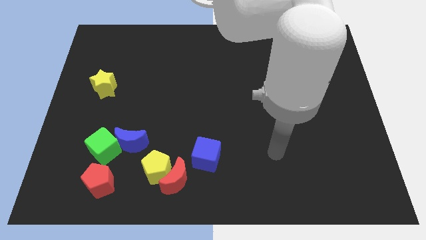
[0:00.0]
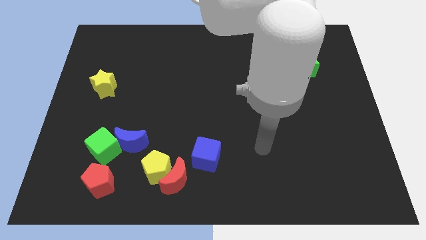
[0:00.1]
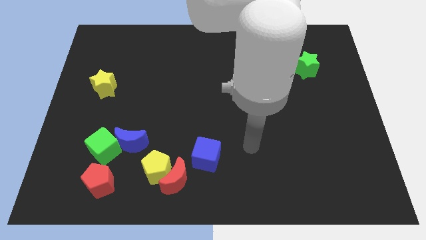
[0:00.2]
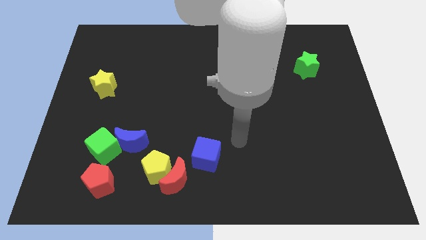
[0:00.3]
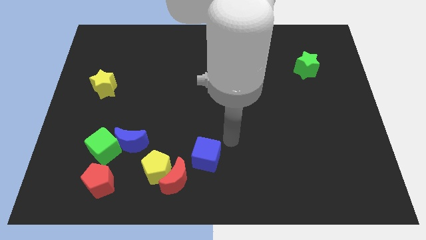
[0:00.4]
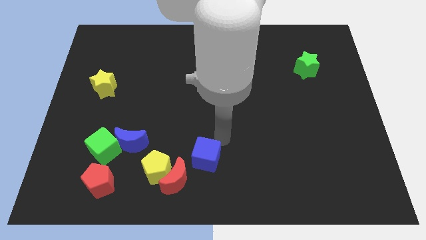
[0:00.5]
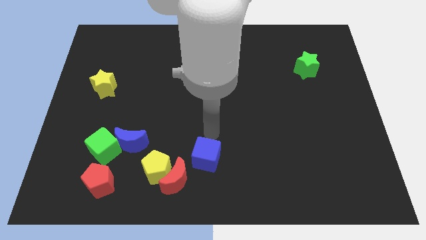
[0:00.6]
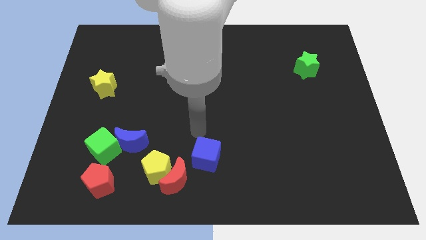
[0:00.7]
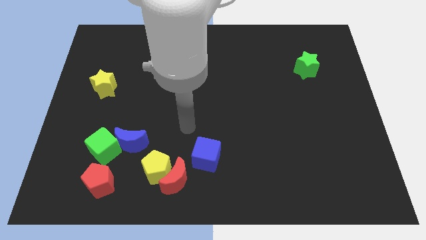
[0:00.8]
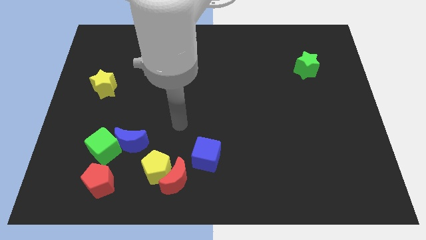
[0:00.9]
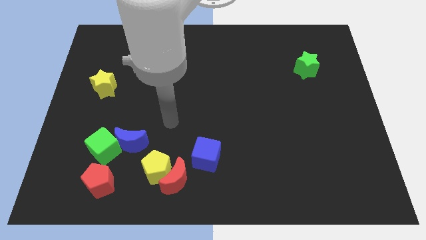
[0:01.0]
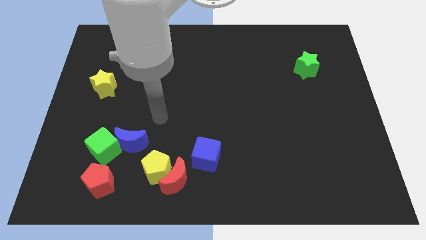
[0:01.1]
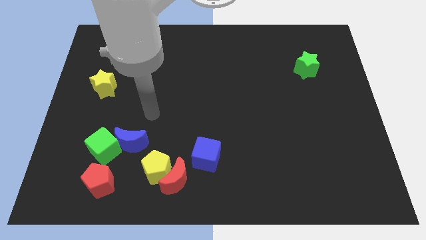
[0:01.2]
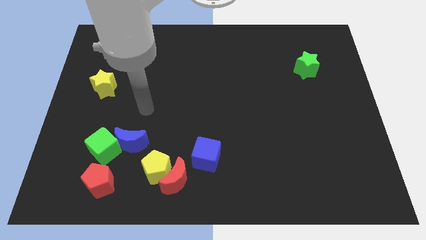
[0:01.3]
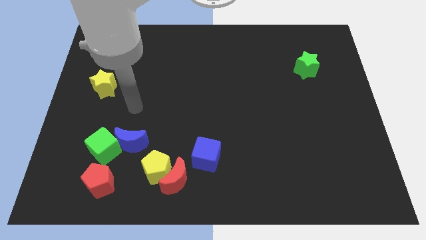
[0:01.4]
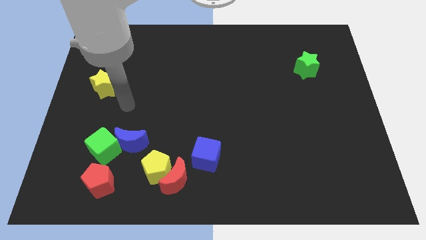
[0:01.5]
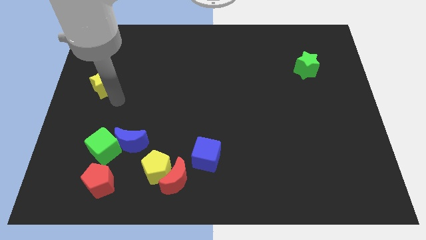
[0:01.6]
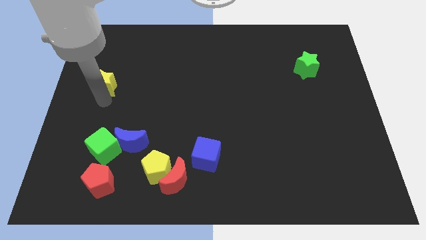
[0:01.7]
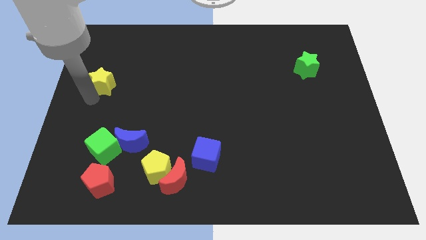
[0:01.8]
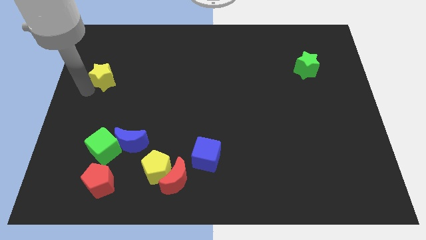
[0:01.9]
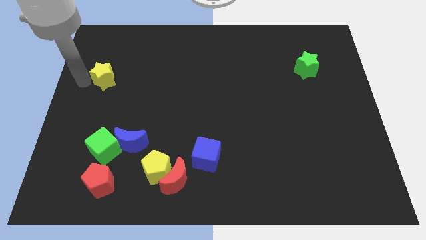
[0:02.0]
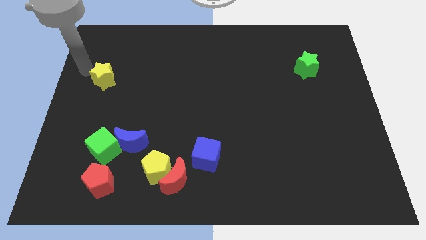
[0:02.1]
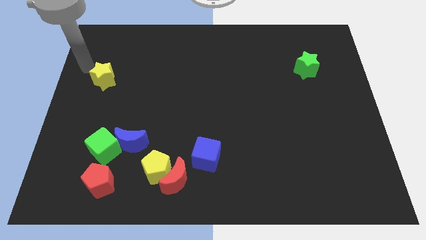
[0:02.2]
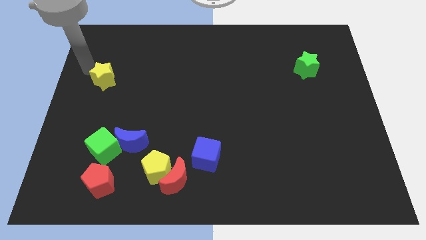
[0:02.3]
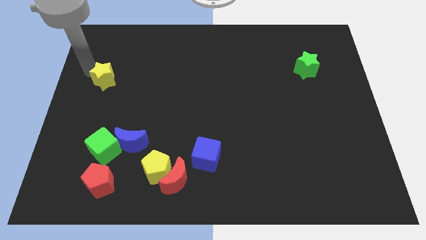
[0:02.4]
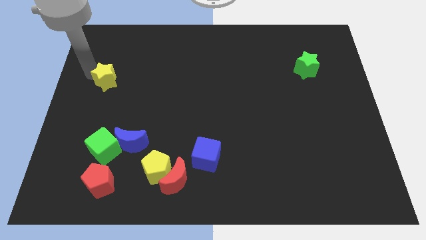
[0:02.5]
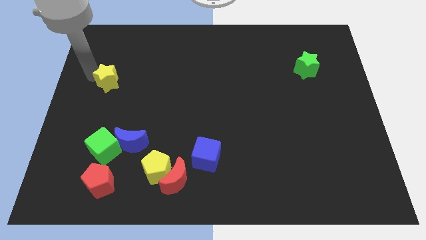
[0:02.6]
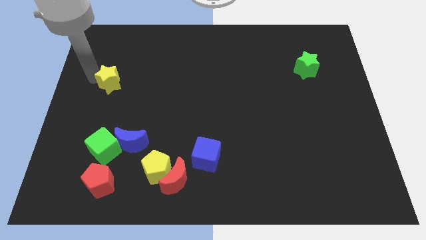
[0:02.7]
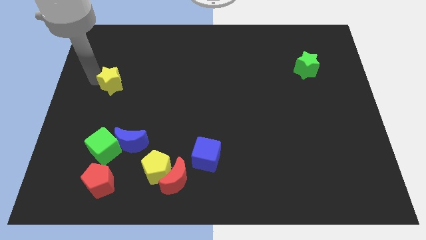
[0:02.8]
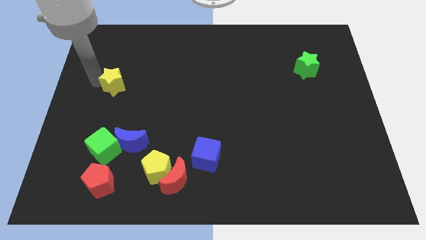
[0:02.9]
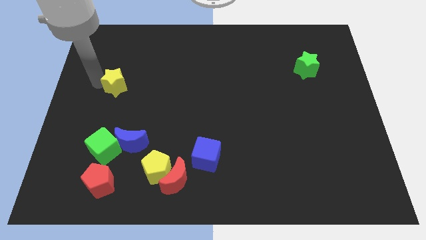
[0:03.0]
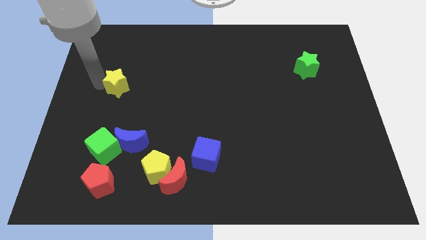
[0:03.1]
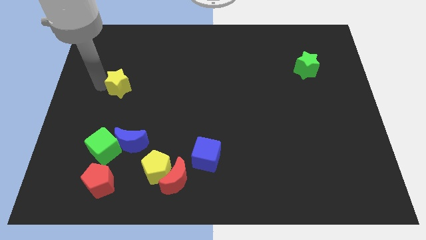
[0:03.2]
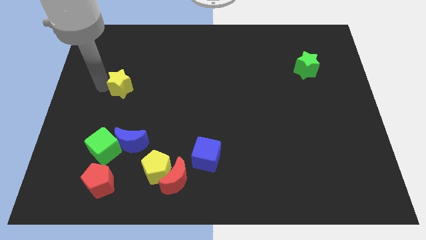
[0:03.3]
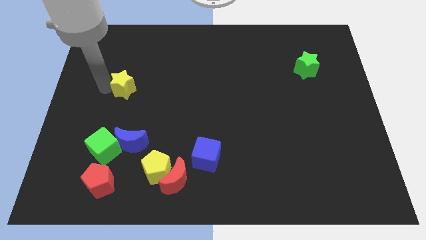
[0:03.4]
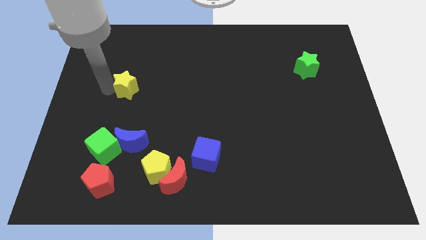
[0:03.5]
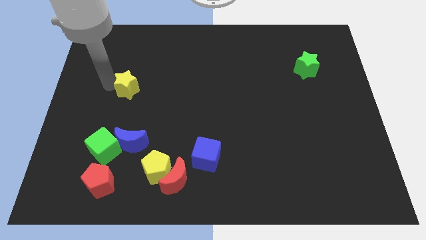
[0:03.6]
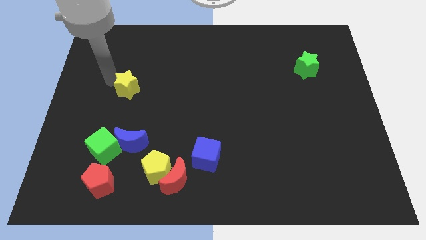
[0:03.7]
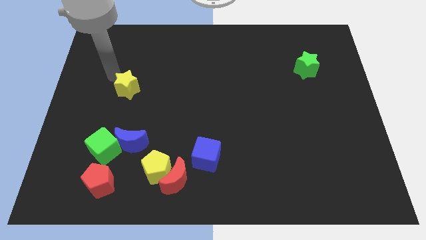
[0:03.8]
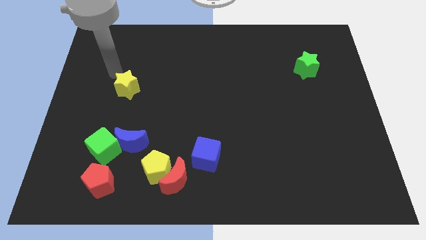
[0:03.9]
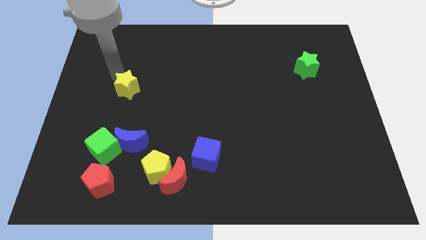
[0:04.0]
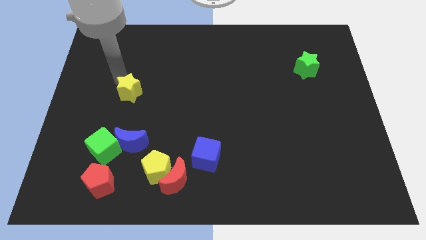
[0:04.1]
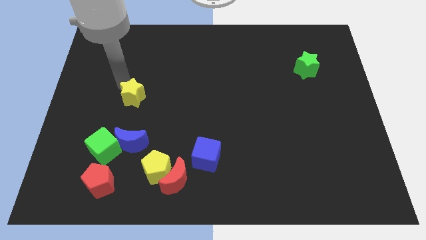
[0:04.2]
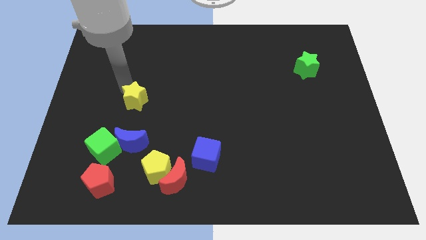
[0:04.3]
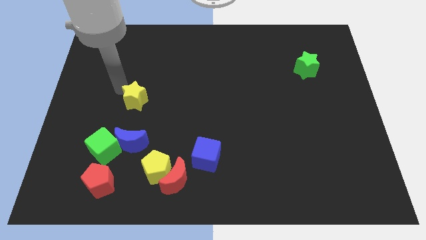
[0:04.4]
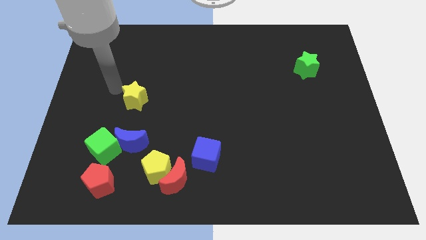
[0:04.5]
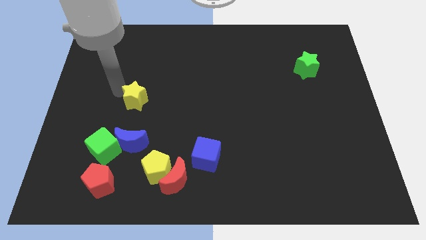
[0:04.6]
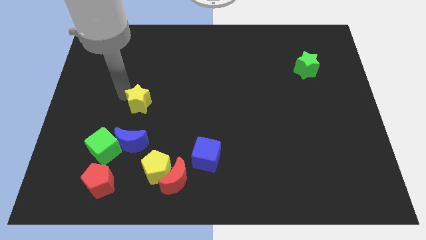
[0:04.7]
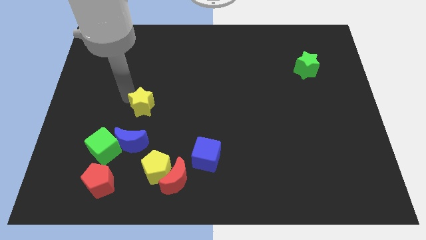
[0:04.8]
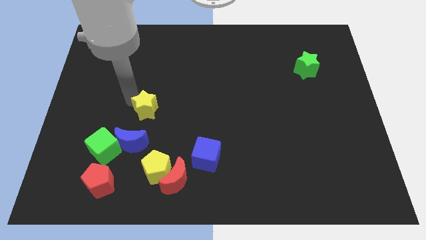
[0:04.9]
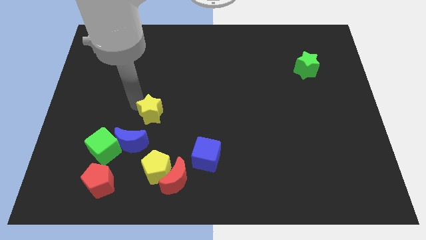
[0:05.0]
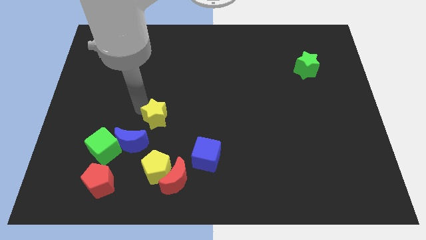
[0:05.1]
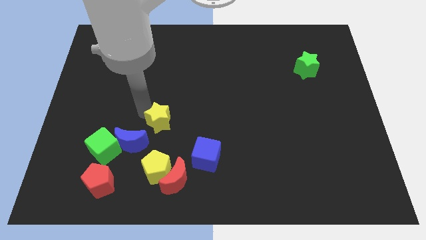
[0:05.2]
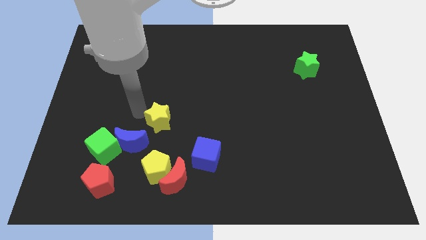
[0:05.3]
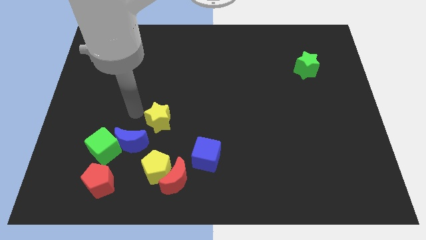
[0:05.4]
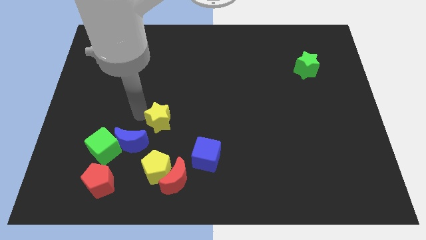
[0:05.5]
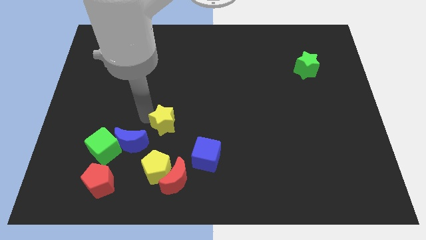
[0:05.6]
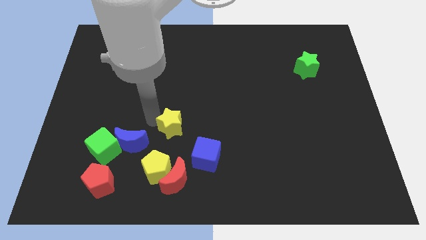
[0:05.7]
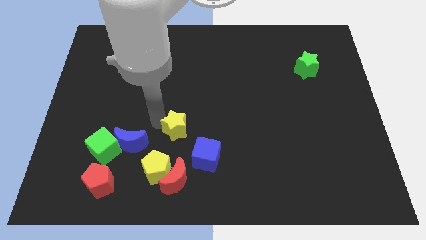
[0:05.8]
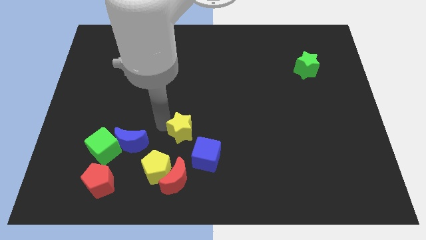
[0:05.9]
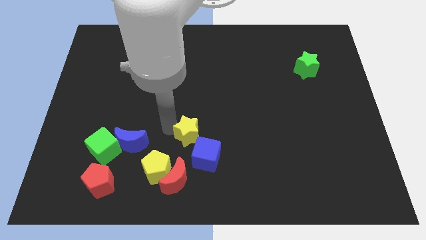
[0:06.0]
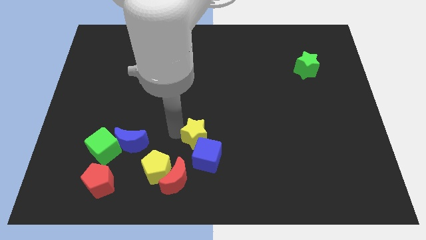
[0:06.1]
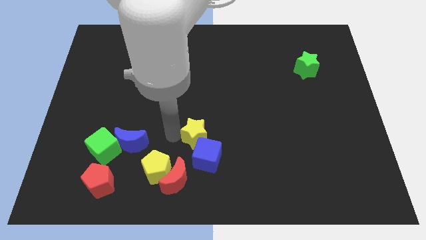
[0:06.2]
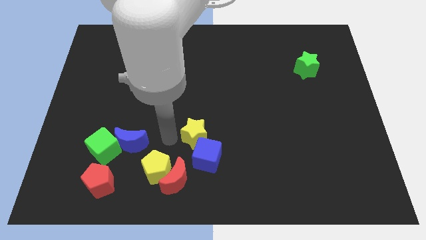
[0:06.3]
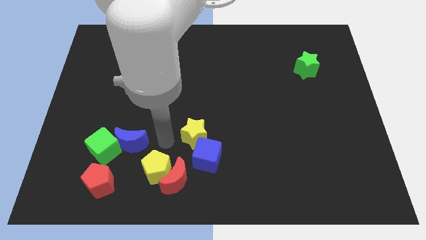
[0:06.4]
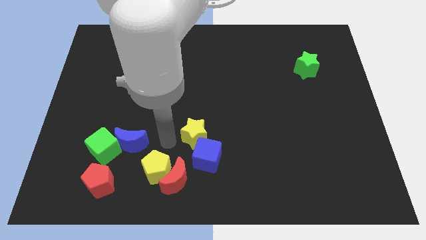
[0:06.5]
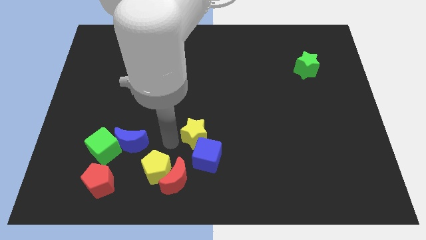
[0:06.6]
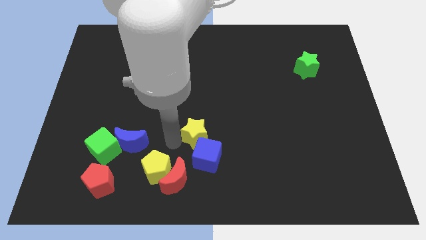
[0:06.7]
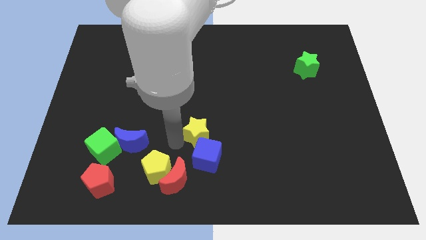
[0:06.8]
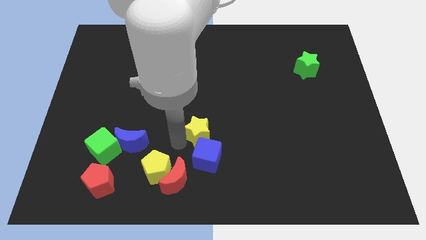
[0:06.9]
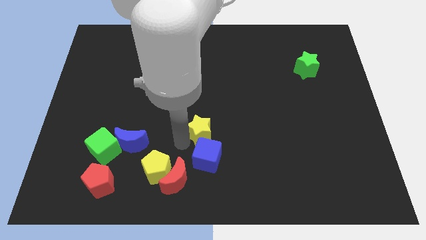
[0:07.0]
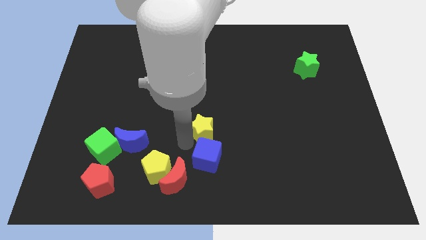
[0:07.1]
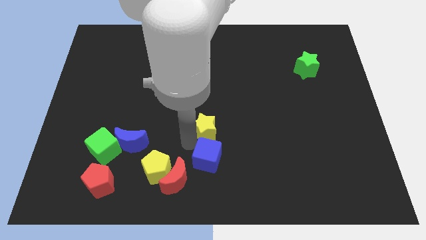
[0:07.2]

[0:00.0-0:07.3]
move the yellow star diagonally up and to the right of the blue cube

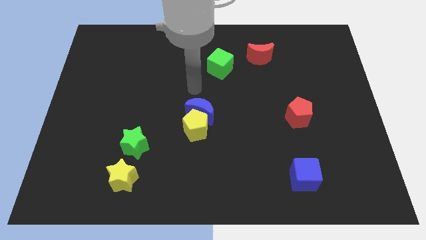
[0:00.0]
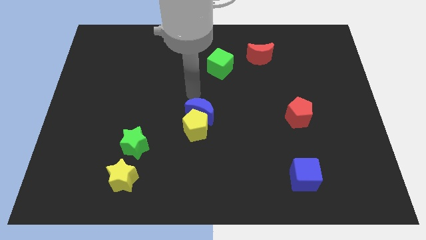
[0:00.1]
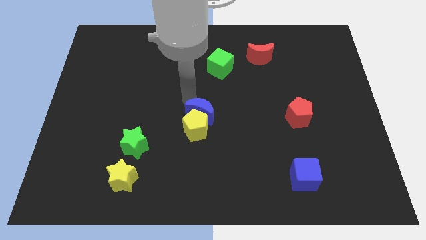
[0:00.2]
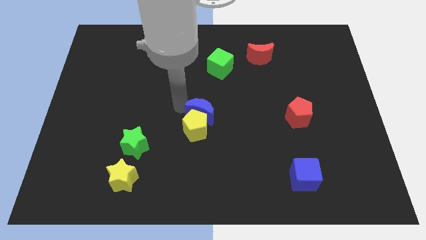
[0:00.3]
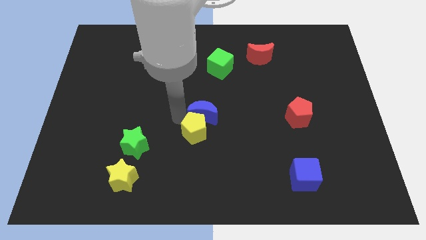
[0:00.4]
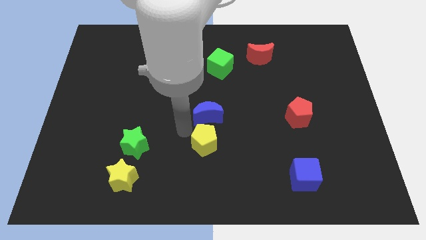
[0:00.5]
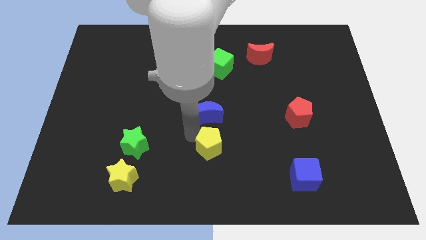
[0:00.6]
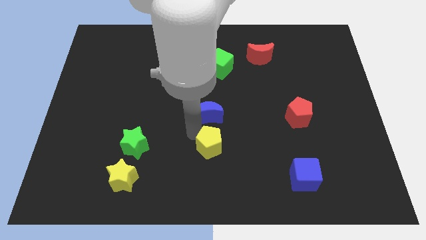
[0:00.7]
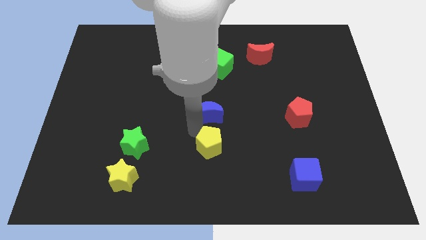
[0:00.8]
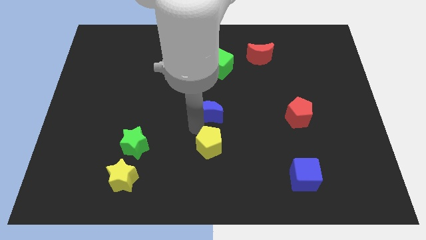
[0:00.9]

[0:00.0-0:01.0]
slide the blue moon to the bottom side of the green cube
